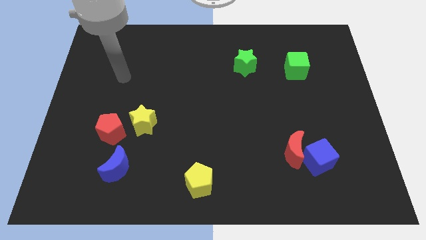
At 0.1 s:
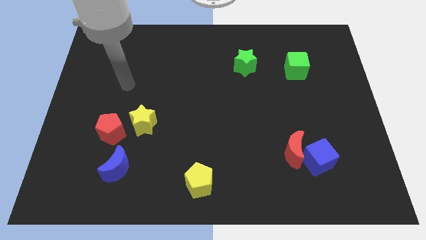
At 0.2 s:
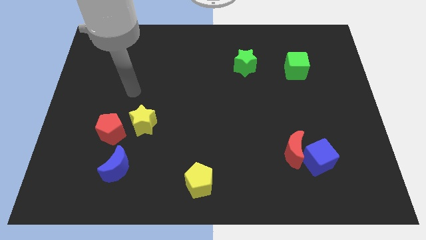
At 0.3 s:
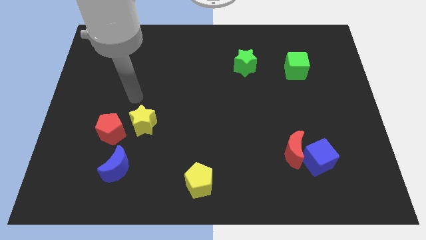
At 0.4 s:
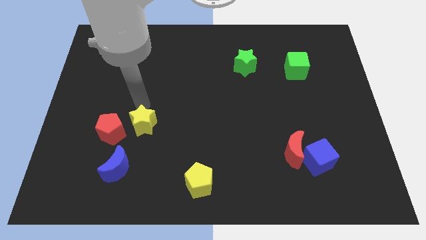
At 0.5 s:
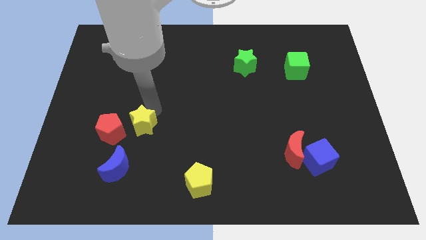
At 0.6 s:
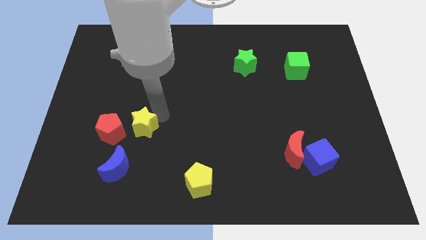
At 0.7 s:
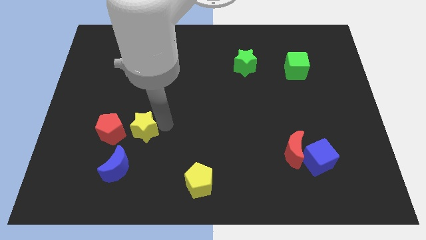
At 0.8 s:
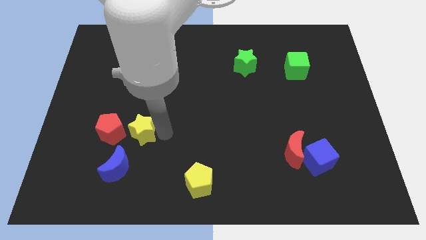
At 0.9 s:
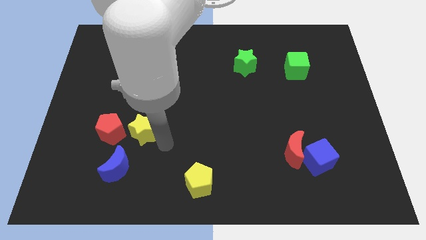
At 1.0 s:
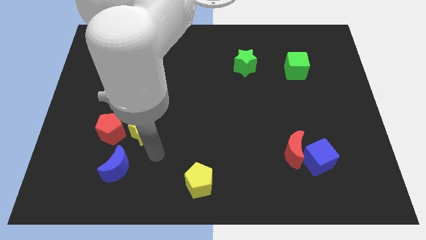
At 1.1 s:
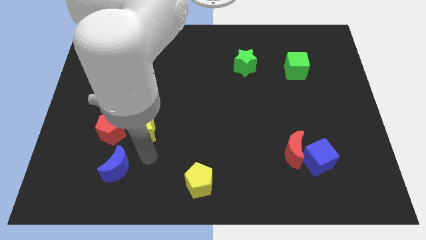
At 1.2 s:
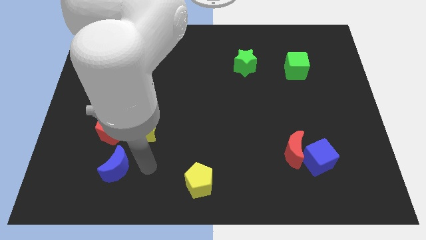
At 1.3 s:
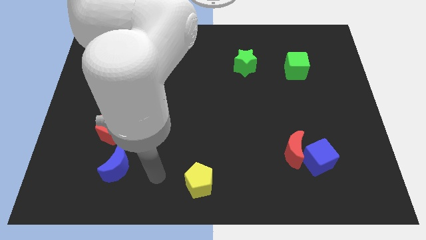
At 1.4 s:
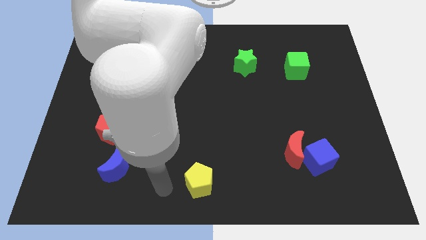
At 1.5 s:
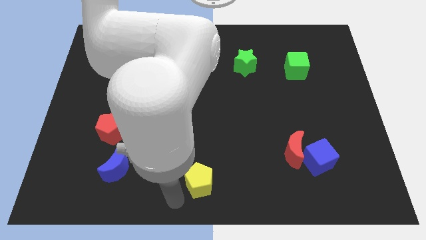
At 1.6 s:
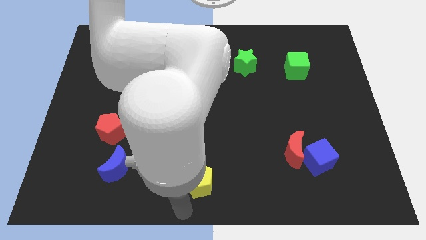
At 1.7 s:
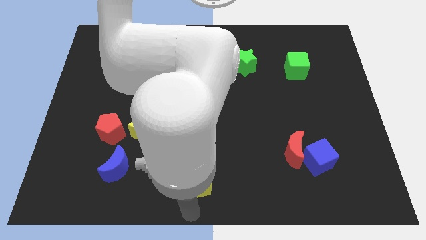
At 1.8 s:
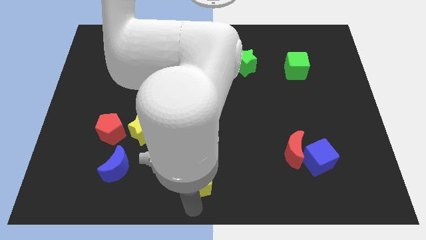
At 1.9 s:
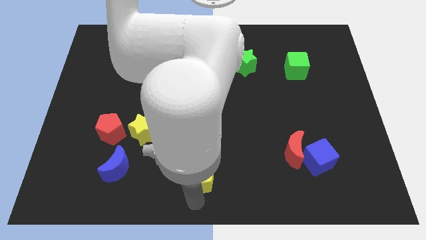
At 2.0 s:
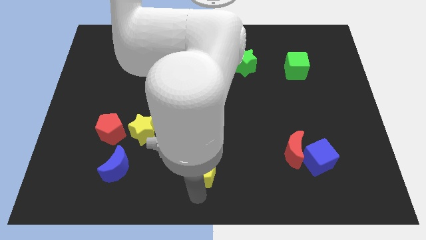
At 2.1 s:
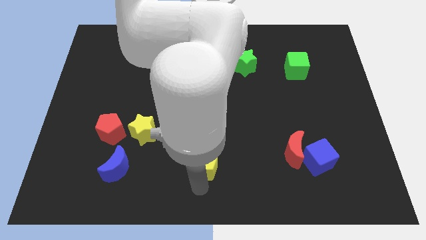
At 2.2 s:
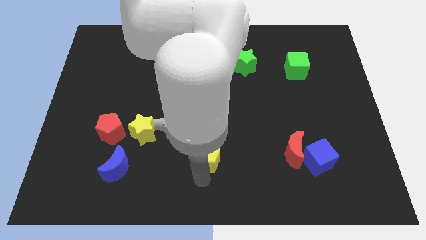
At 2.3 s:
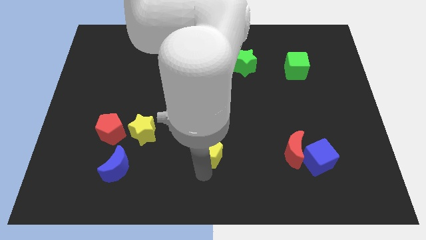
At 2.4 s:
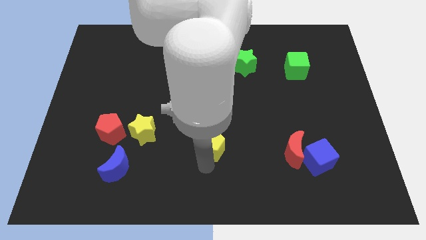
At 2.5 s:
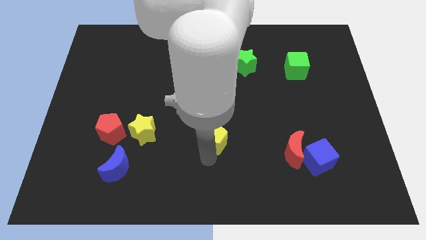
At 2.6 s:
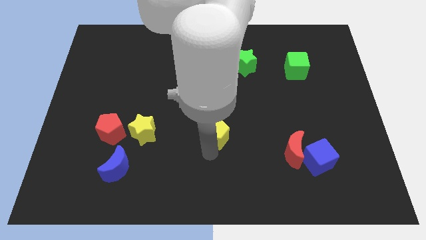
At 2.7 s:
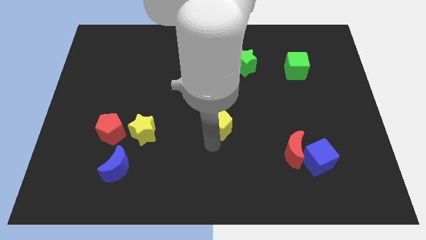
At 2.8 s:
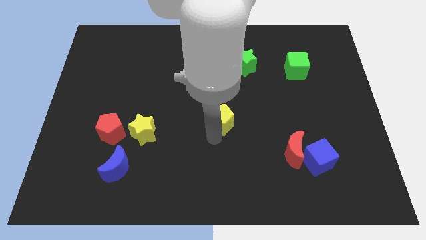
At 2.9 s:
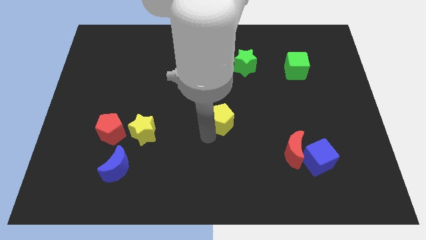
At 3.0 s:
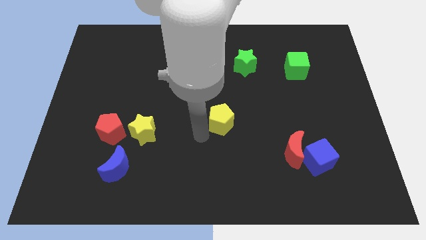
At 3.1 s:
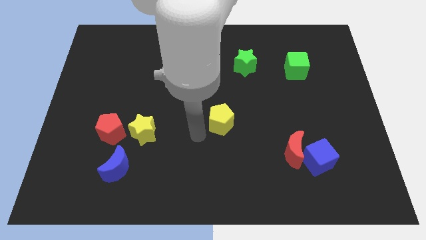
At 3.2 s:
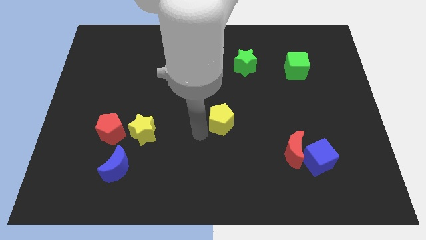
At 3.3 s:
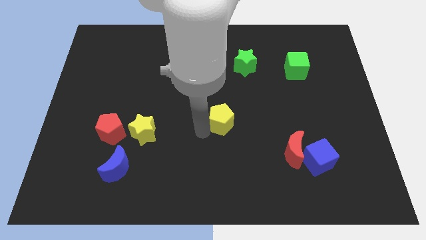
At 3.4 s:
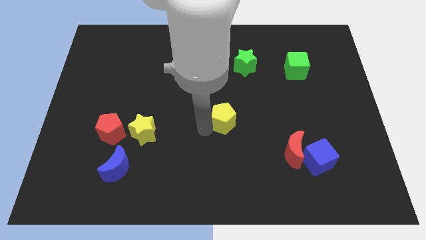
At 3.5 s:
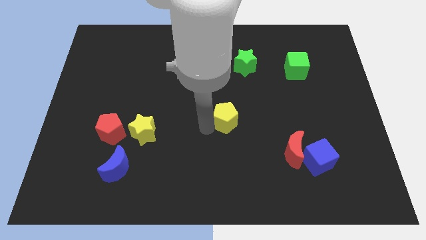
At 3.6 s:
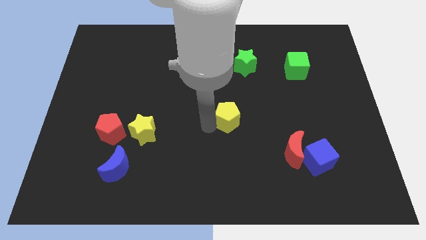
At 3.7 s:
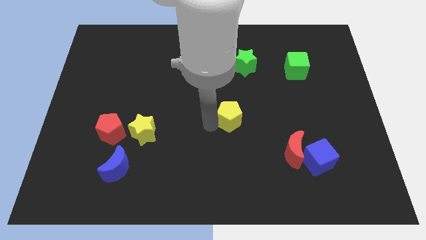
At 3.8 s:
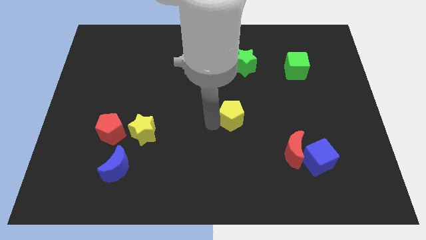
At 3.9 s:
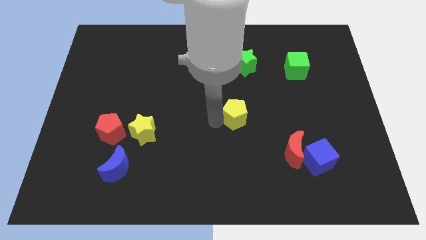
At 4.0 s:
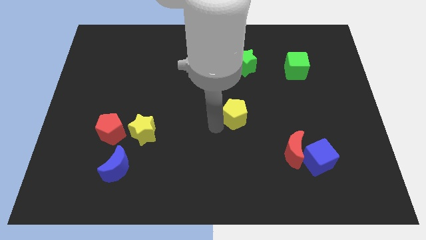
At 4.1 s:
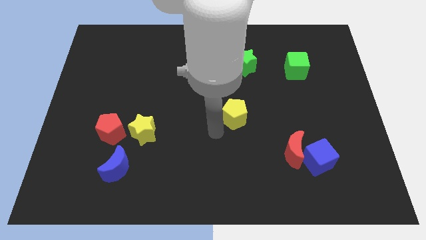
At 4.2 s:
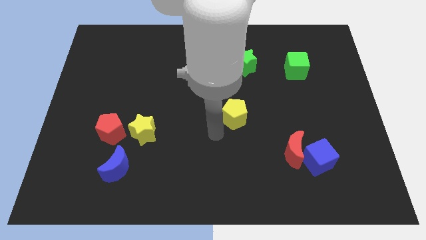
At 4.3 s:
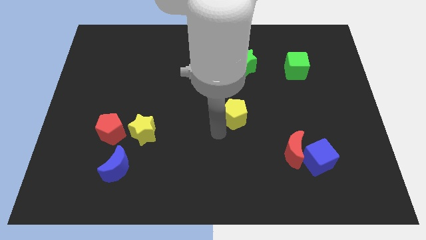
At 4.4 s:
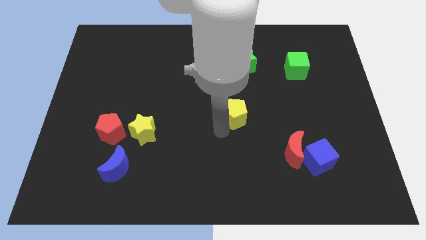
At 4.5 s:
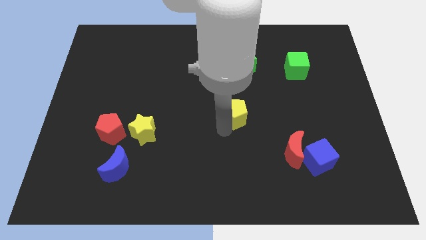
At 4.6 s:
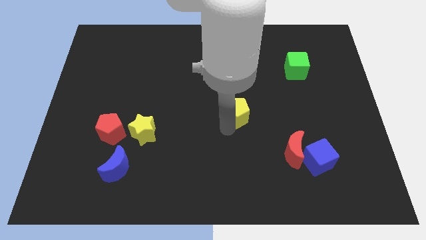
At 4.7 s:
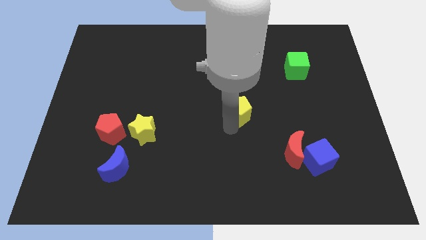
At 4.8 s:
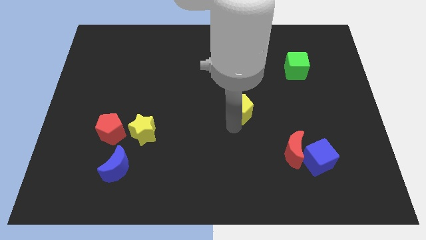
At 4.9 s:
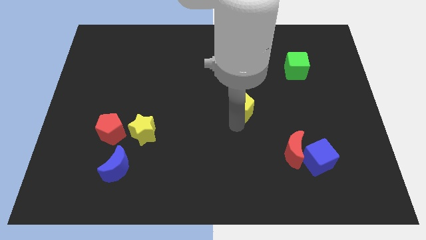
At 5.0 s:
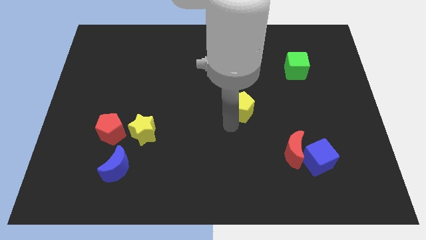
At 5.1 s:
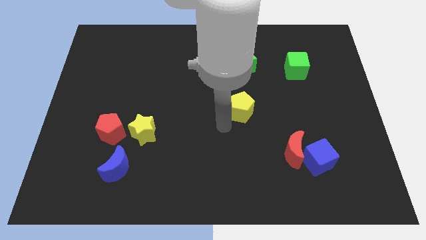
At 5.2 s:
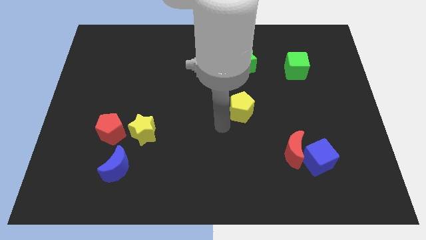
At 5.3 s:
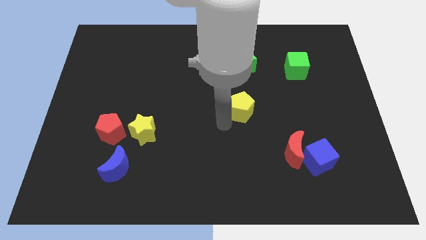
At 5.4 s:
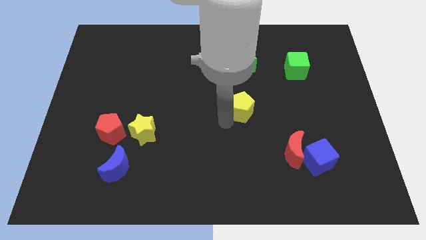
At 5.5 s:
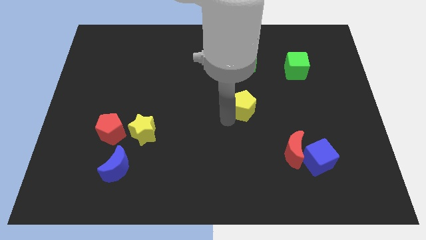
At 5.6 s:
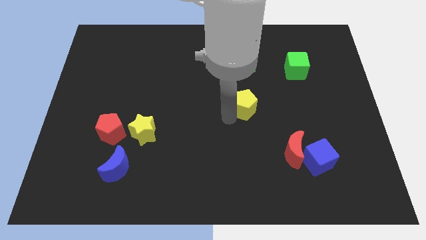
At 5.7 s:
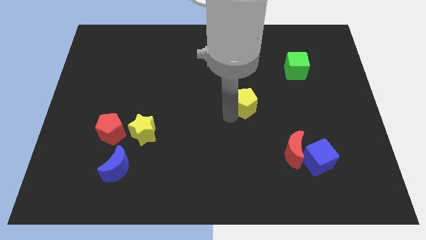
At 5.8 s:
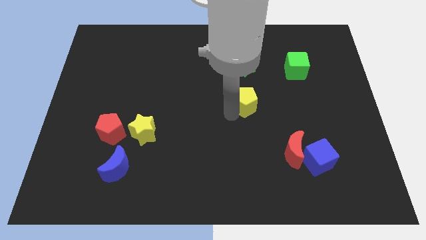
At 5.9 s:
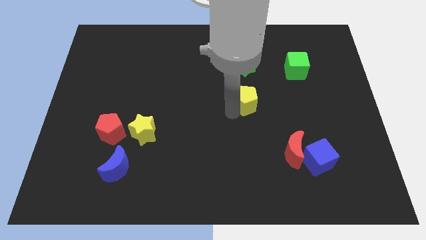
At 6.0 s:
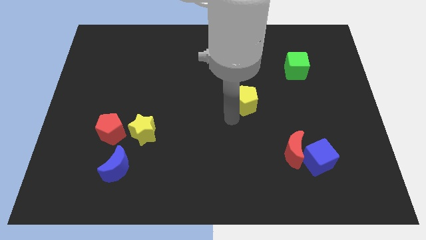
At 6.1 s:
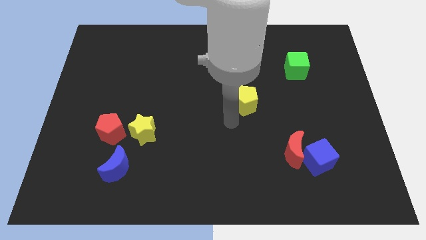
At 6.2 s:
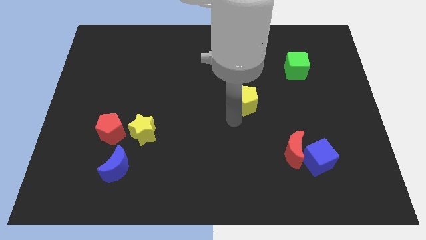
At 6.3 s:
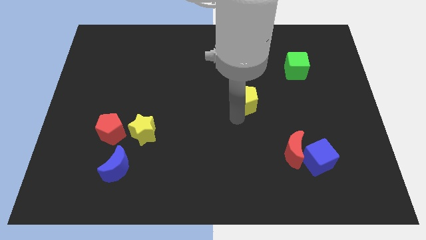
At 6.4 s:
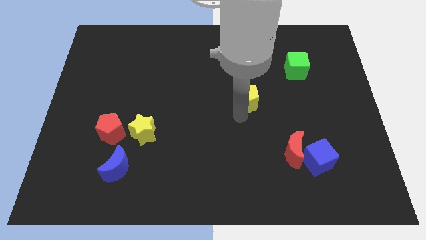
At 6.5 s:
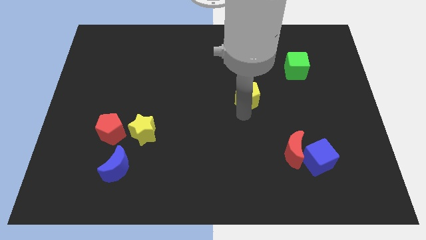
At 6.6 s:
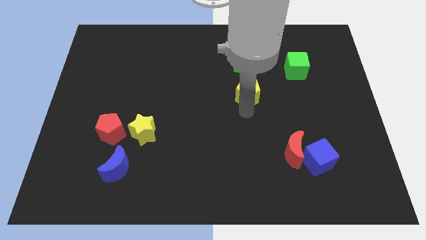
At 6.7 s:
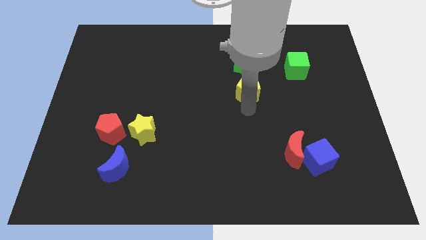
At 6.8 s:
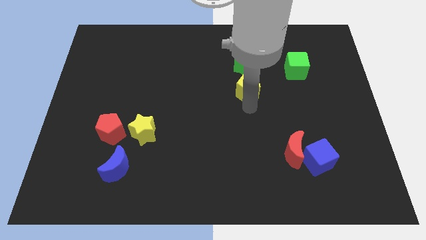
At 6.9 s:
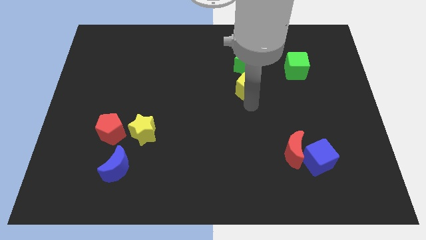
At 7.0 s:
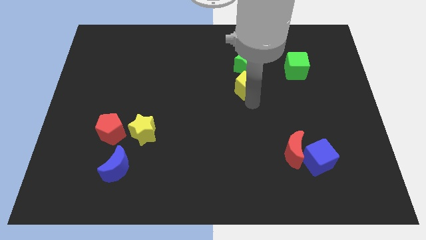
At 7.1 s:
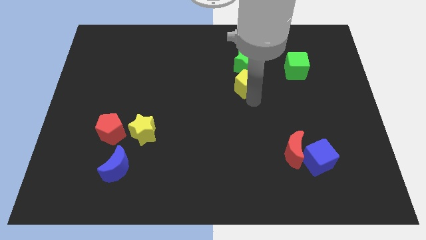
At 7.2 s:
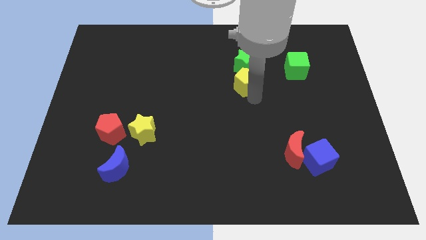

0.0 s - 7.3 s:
push the yellow pentagon diagonally down and to the right of the green star
